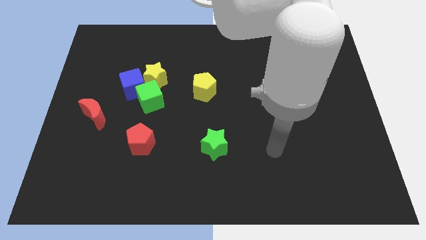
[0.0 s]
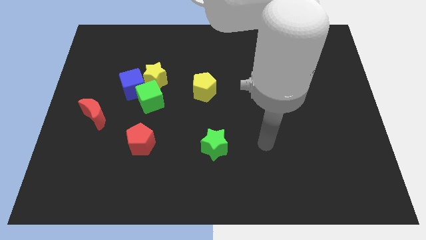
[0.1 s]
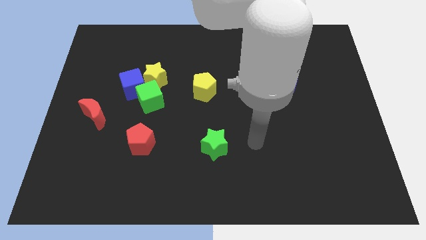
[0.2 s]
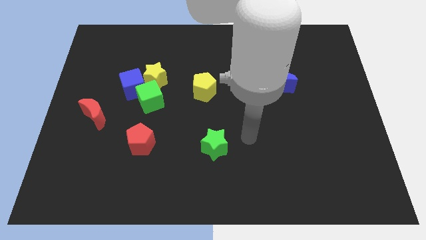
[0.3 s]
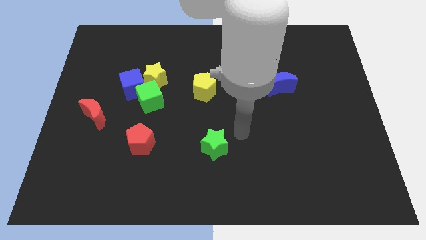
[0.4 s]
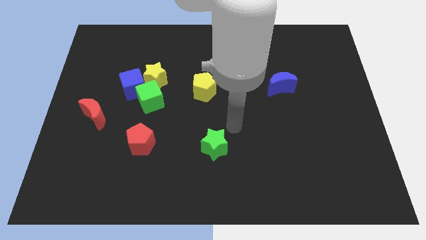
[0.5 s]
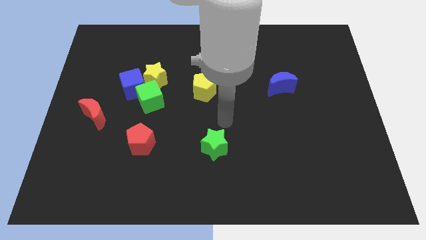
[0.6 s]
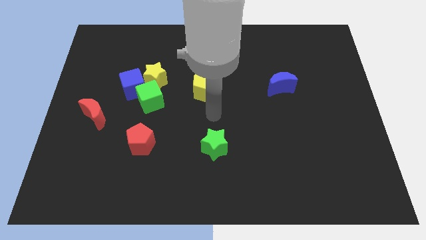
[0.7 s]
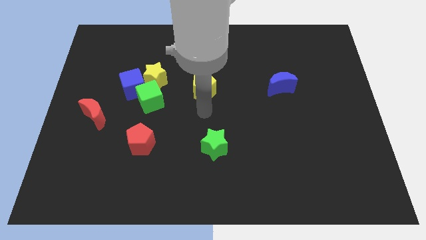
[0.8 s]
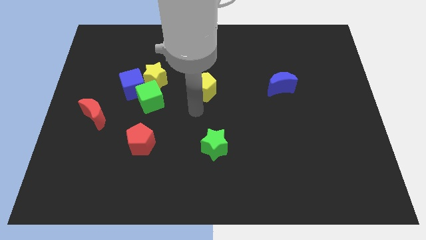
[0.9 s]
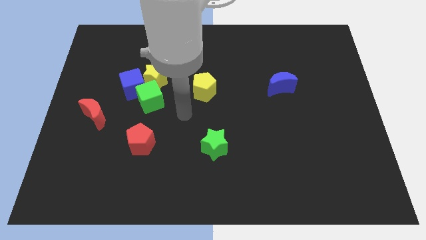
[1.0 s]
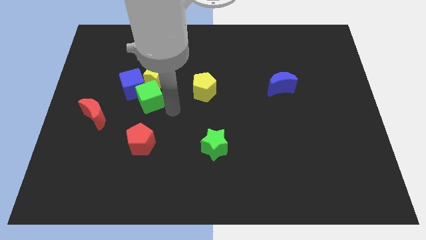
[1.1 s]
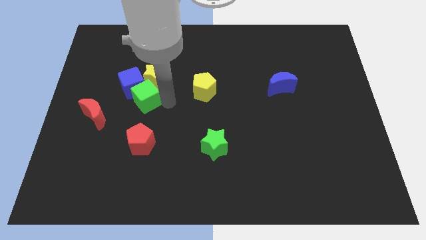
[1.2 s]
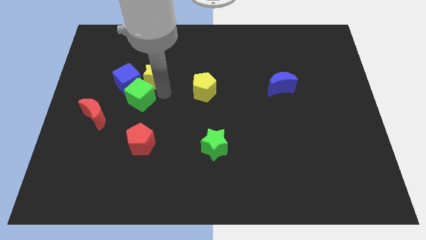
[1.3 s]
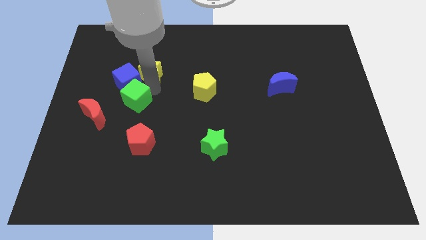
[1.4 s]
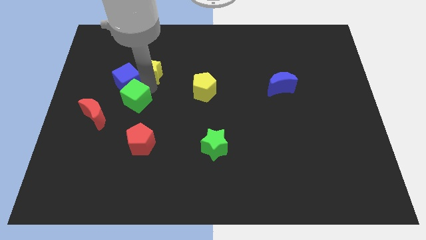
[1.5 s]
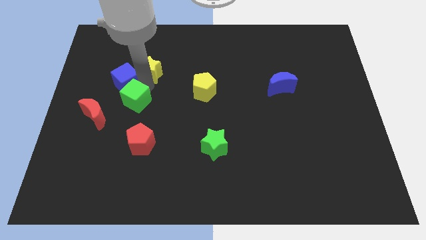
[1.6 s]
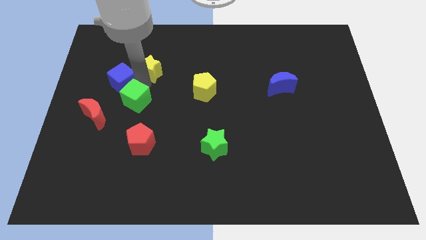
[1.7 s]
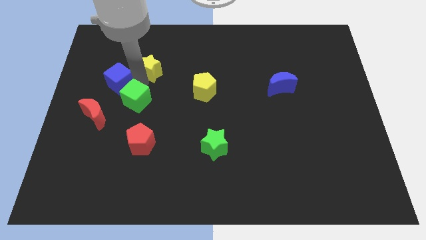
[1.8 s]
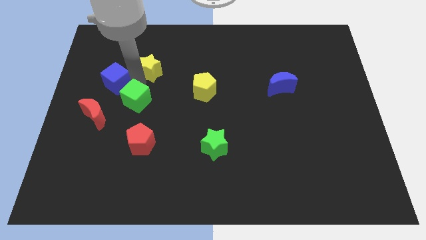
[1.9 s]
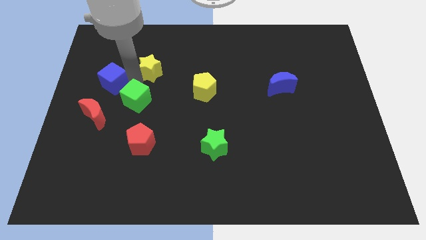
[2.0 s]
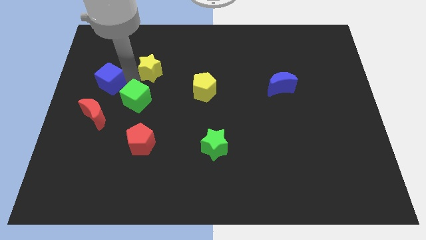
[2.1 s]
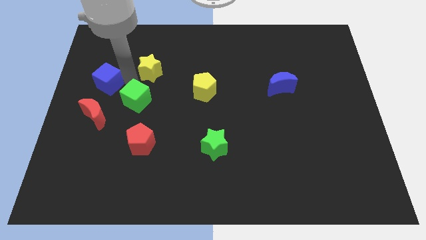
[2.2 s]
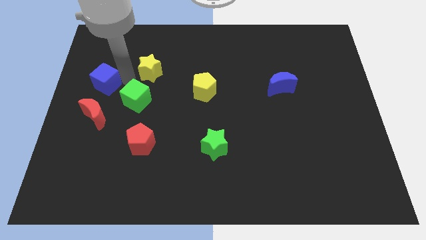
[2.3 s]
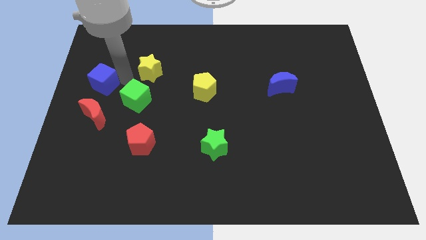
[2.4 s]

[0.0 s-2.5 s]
separate the blue cube from the yellow star and green cube

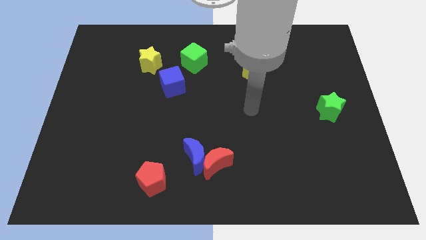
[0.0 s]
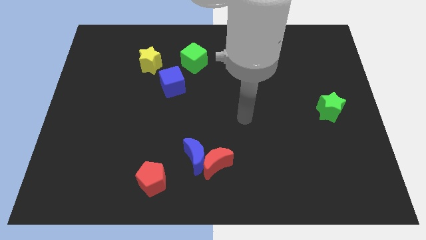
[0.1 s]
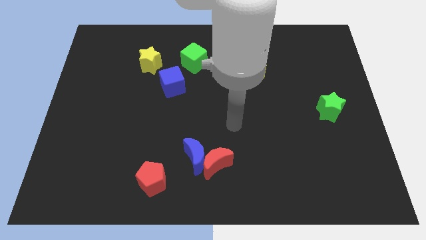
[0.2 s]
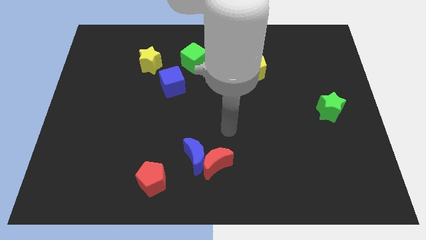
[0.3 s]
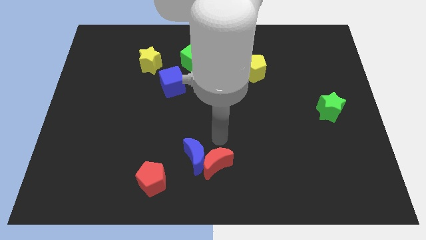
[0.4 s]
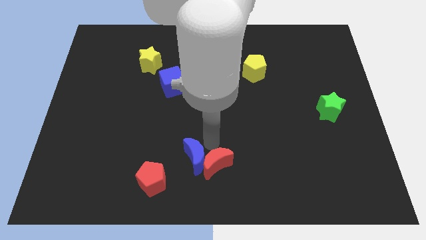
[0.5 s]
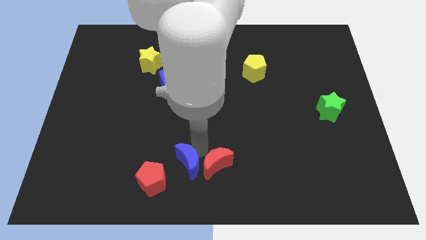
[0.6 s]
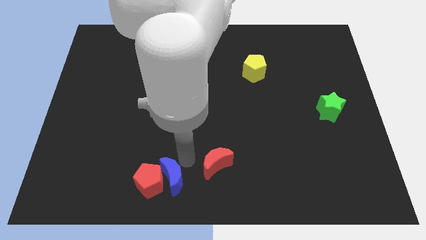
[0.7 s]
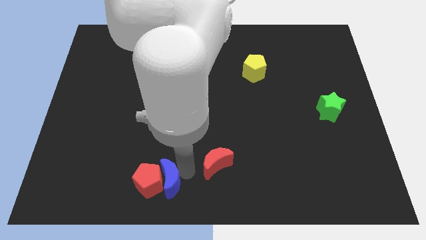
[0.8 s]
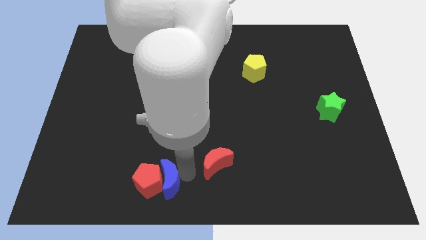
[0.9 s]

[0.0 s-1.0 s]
pull the red moon apart from the blue moon

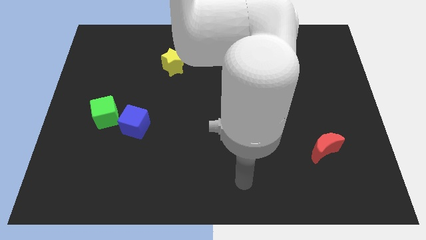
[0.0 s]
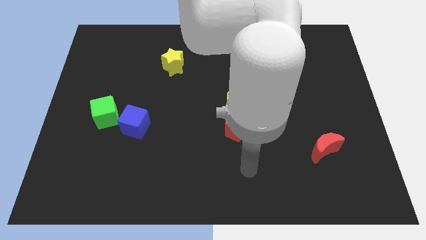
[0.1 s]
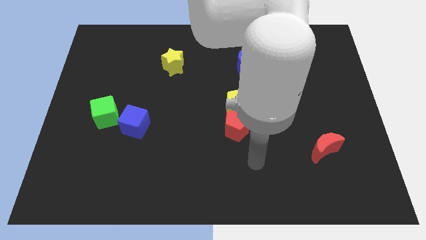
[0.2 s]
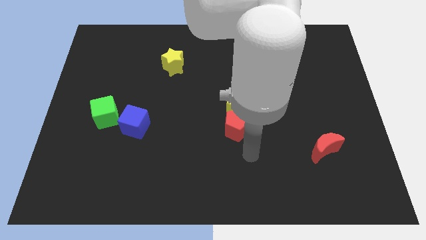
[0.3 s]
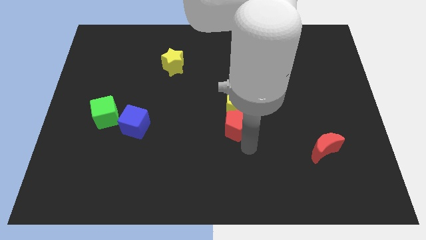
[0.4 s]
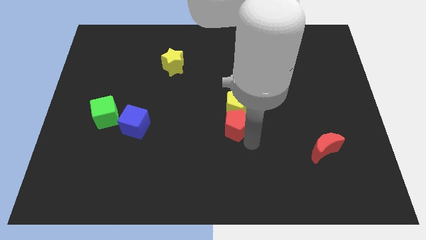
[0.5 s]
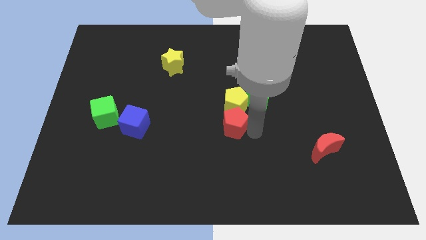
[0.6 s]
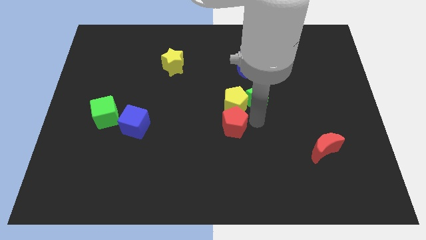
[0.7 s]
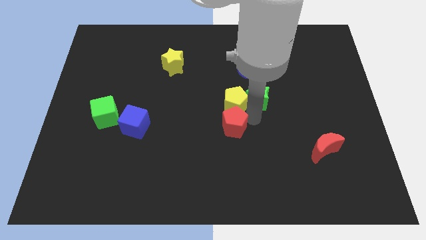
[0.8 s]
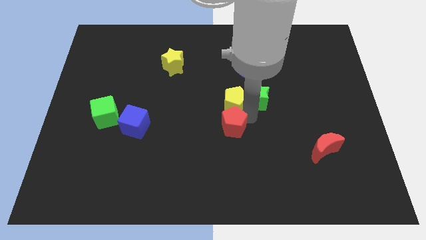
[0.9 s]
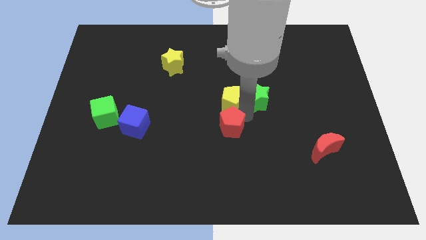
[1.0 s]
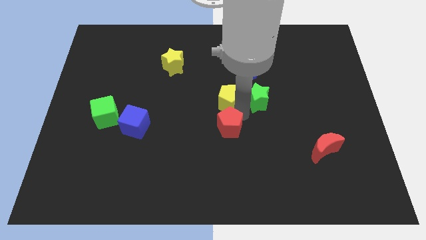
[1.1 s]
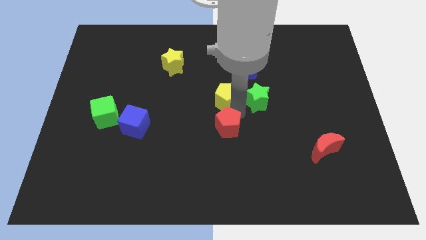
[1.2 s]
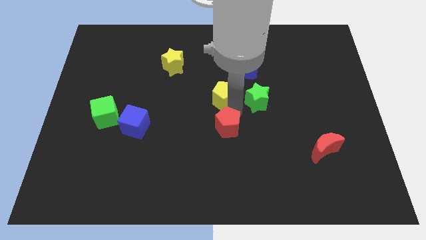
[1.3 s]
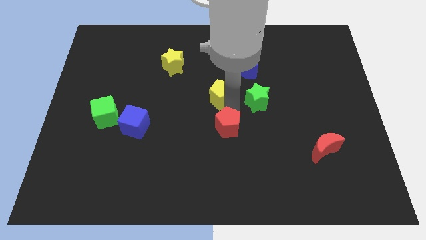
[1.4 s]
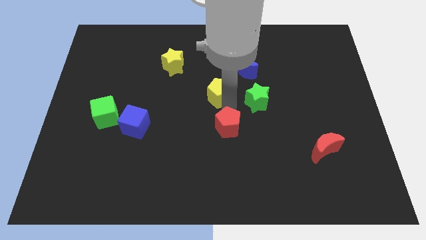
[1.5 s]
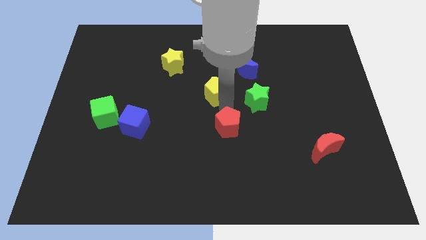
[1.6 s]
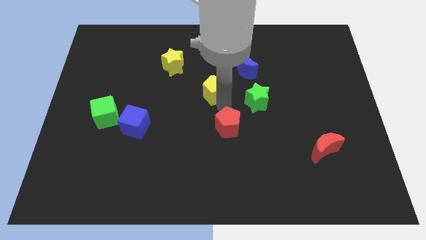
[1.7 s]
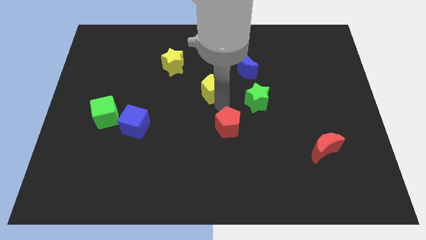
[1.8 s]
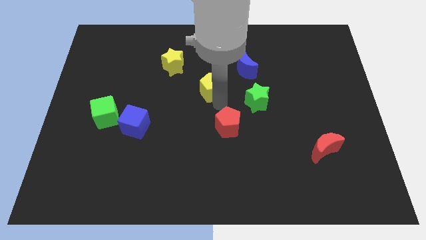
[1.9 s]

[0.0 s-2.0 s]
move the yellow pentagon away from the green star and red pentagon

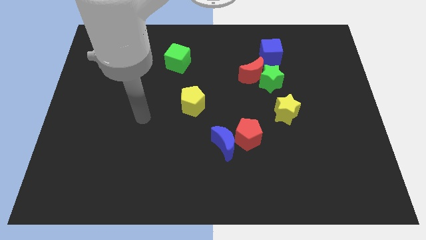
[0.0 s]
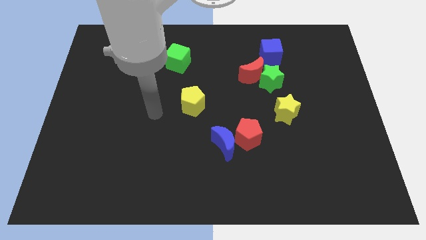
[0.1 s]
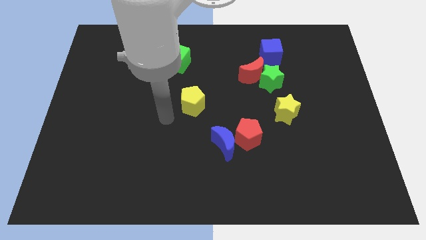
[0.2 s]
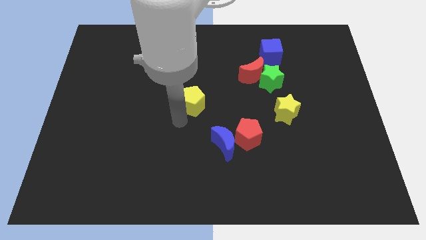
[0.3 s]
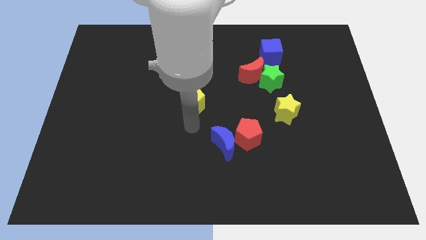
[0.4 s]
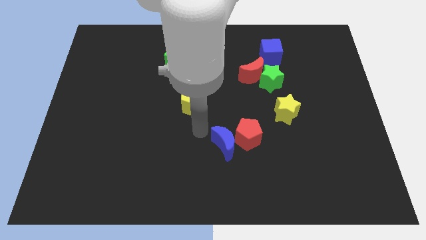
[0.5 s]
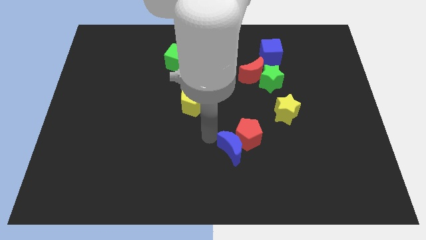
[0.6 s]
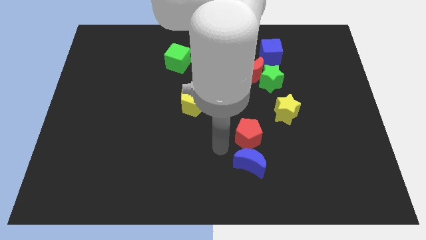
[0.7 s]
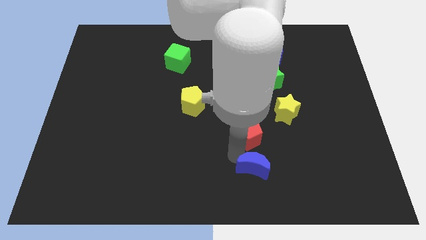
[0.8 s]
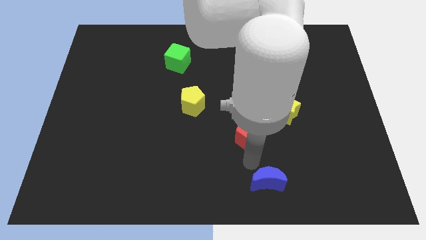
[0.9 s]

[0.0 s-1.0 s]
separate the red pentagon from the blue moon

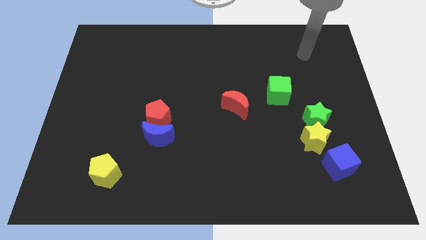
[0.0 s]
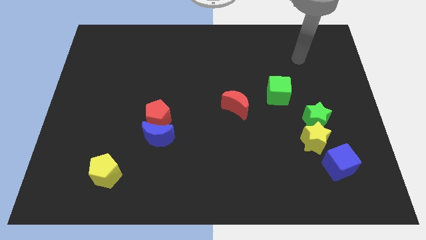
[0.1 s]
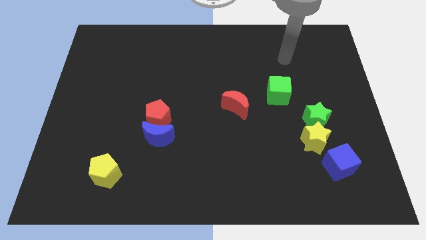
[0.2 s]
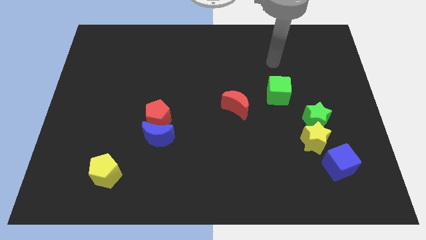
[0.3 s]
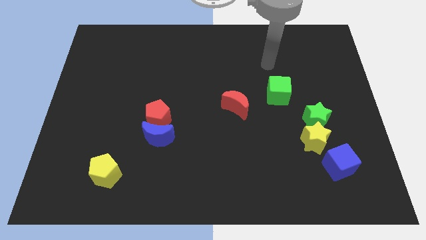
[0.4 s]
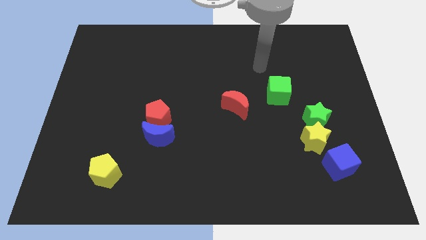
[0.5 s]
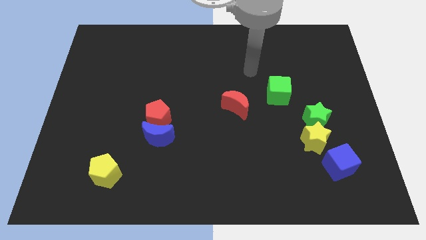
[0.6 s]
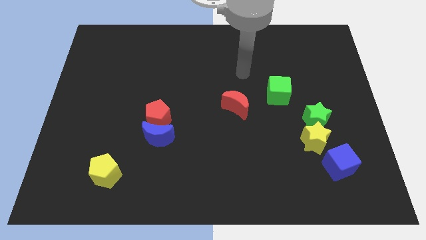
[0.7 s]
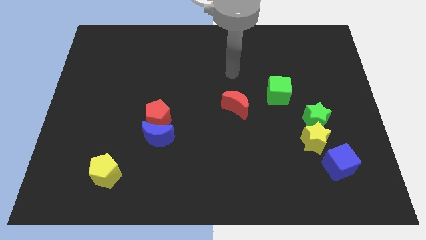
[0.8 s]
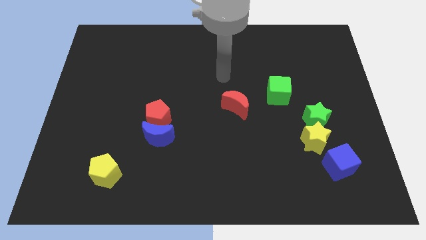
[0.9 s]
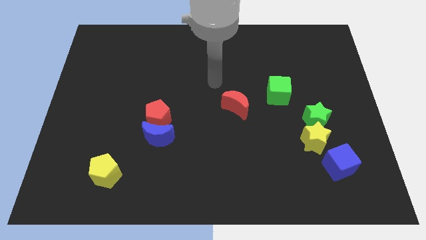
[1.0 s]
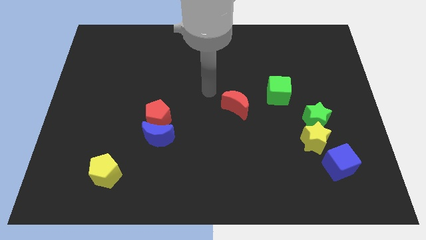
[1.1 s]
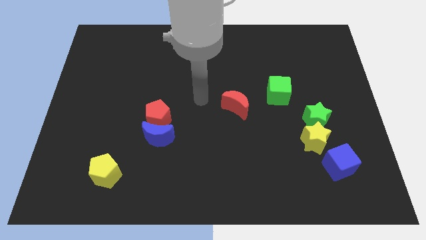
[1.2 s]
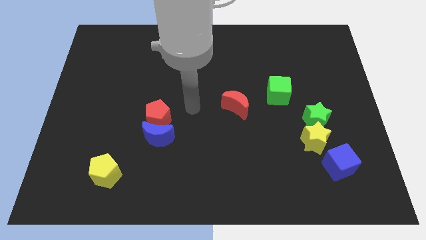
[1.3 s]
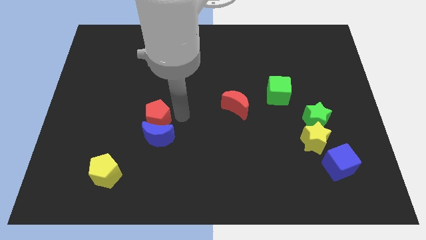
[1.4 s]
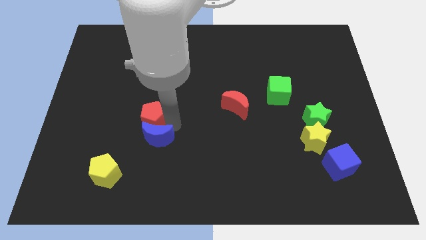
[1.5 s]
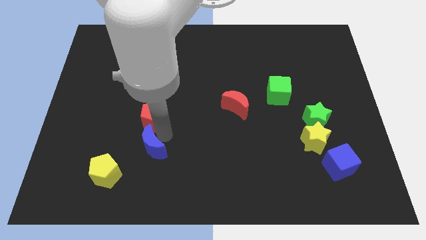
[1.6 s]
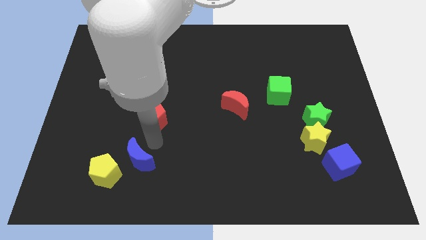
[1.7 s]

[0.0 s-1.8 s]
move the red pentagon away from the blue moon

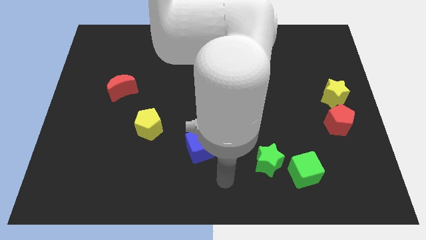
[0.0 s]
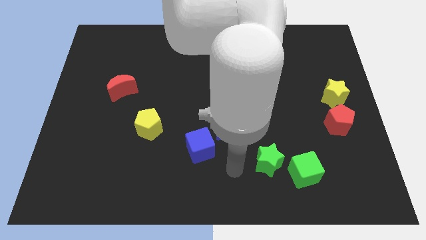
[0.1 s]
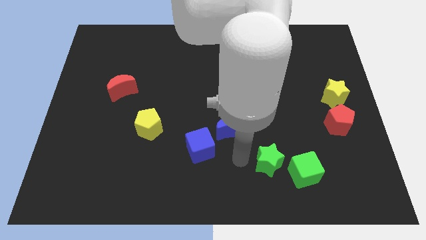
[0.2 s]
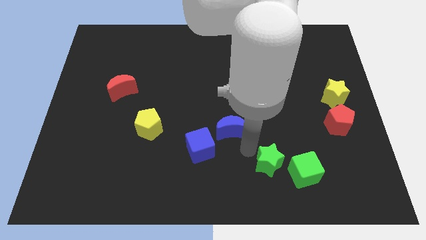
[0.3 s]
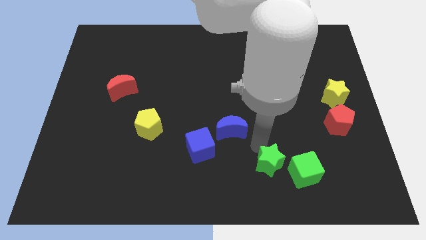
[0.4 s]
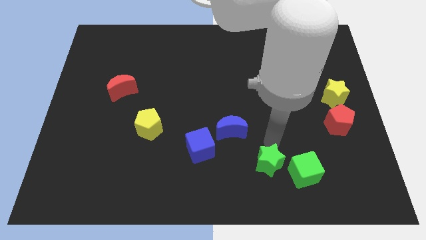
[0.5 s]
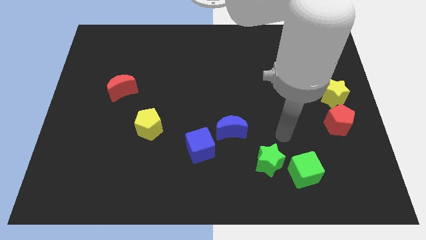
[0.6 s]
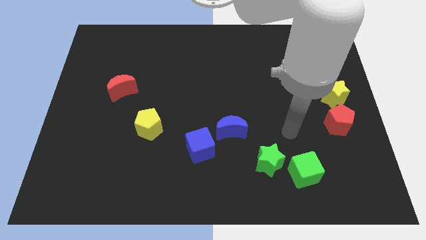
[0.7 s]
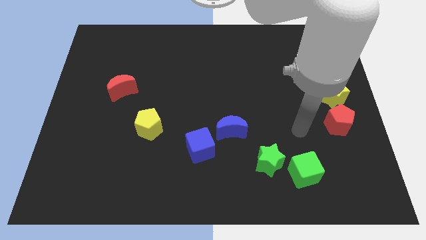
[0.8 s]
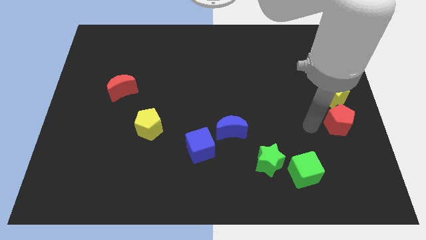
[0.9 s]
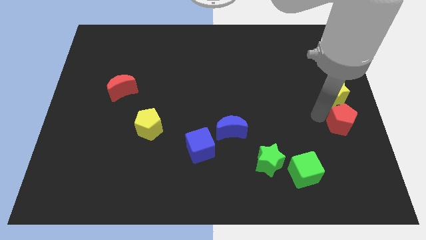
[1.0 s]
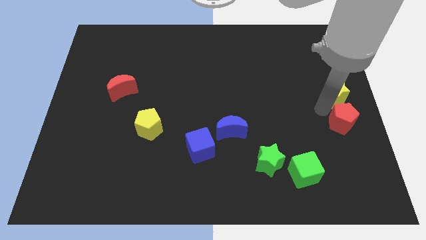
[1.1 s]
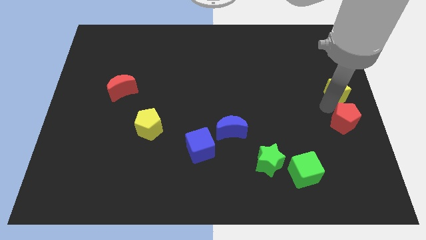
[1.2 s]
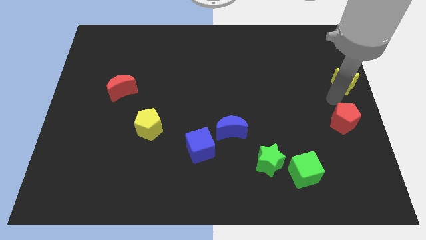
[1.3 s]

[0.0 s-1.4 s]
separate the red pentagon from the yellow star
